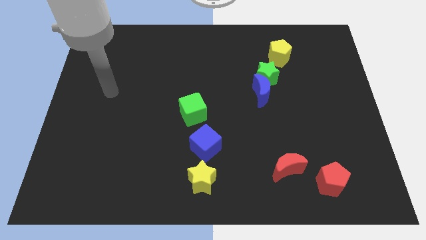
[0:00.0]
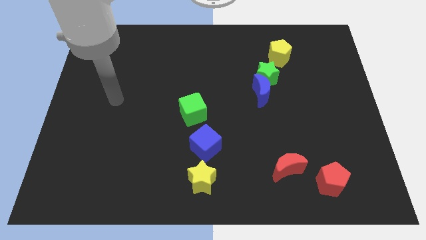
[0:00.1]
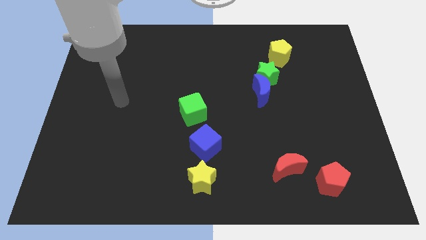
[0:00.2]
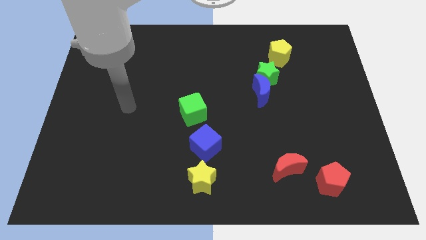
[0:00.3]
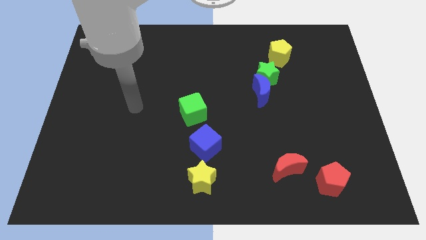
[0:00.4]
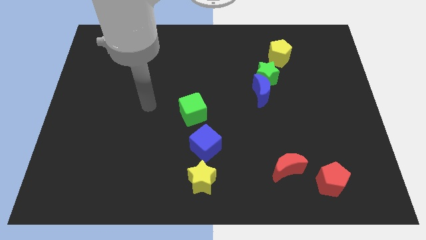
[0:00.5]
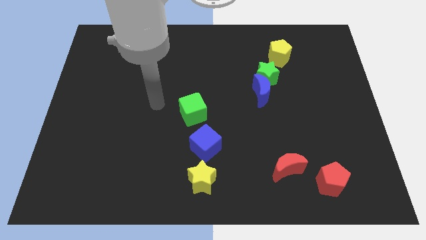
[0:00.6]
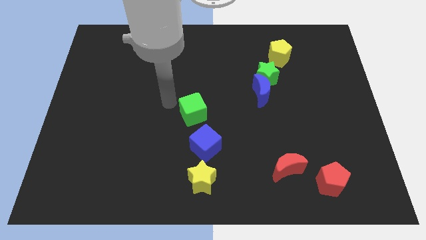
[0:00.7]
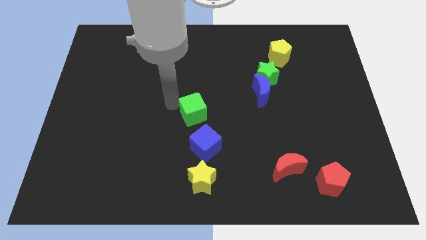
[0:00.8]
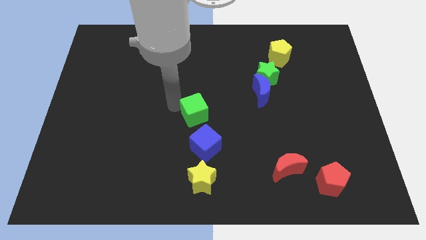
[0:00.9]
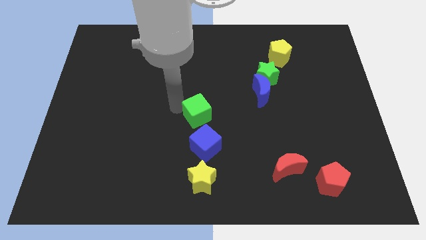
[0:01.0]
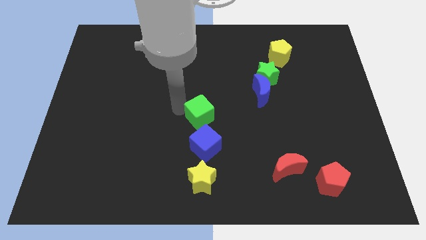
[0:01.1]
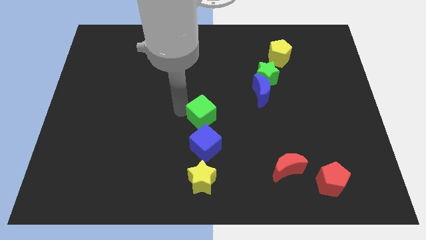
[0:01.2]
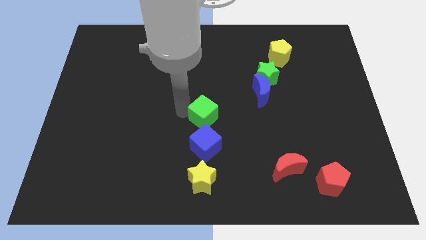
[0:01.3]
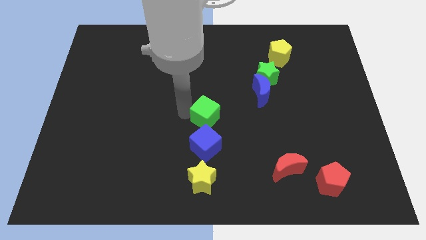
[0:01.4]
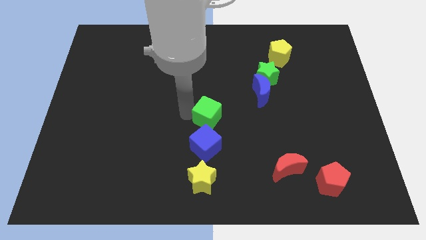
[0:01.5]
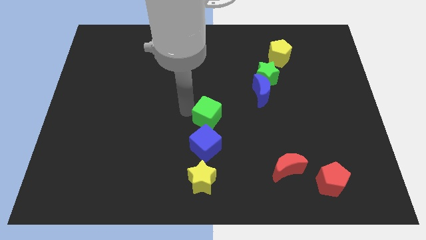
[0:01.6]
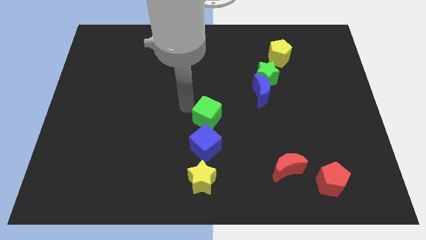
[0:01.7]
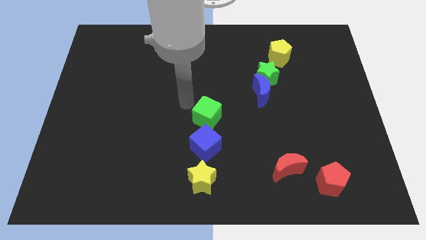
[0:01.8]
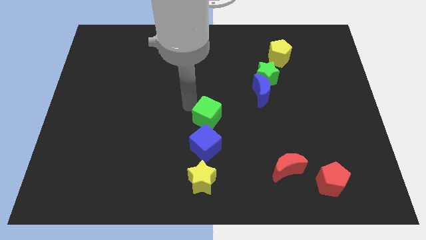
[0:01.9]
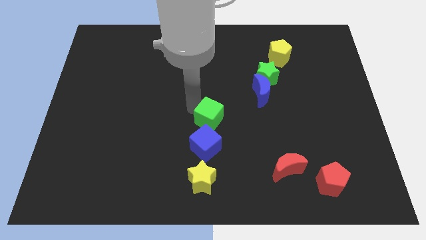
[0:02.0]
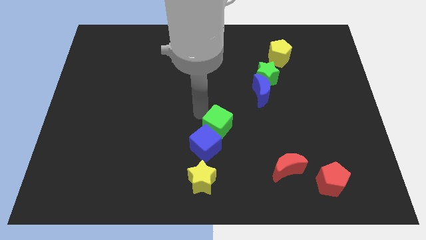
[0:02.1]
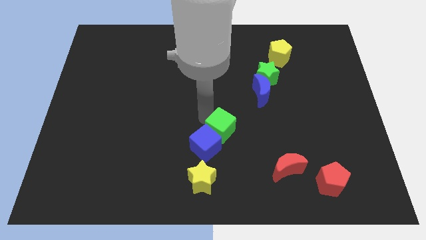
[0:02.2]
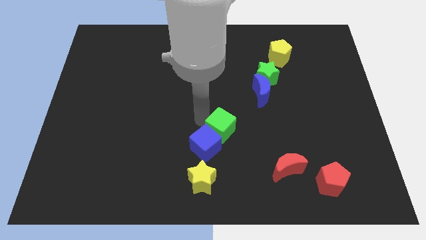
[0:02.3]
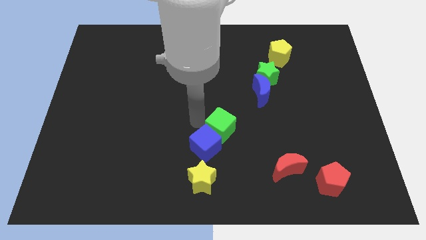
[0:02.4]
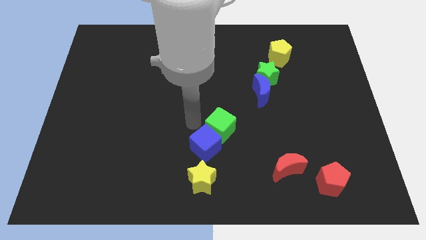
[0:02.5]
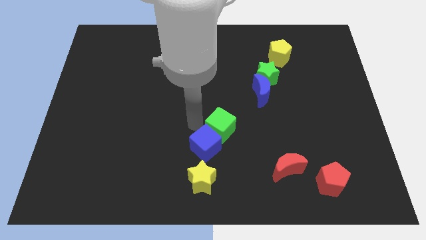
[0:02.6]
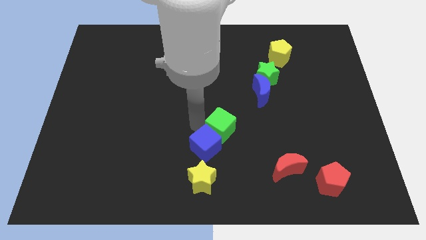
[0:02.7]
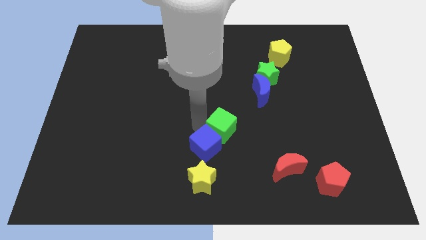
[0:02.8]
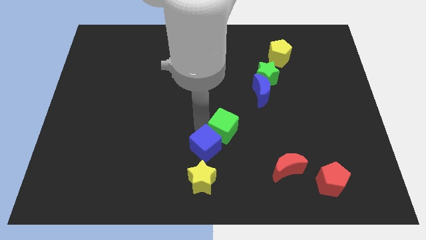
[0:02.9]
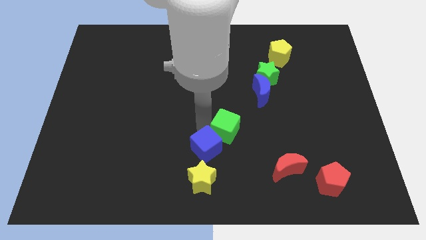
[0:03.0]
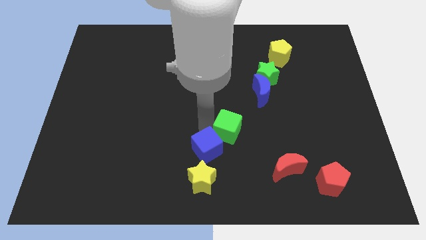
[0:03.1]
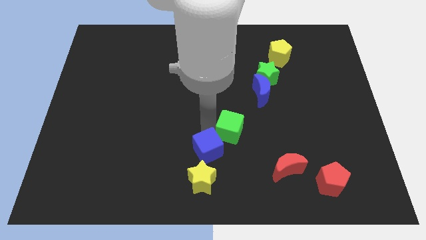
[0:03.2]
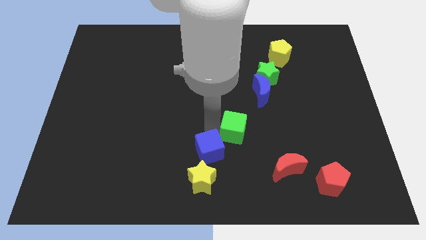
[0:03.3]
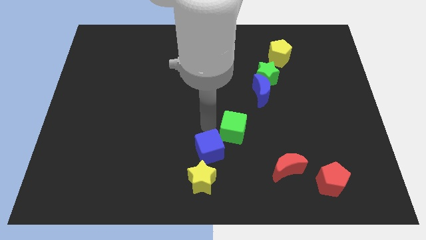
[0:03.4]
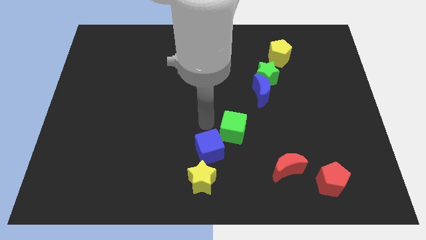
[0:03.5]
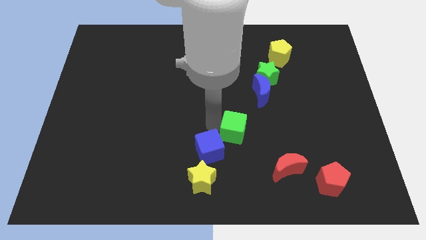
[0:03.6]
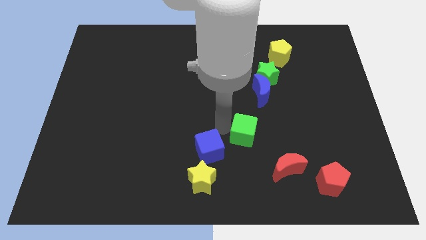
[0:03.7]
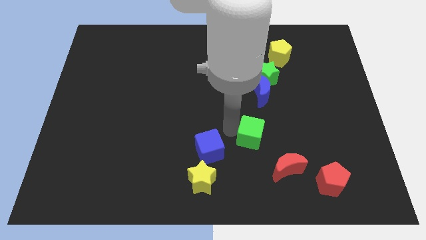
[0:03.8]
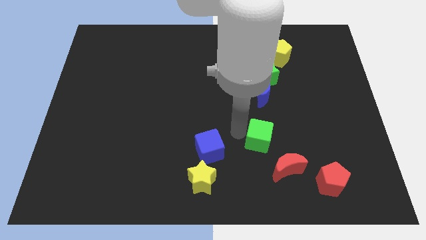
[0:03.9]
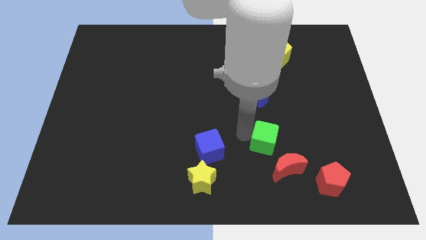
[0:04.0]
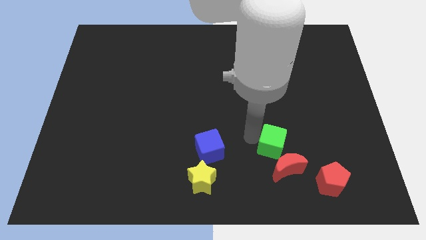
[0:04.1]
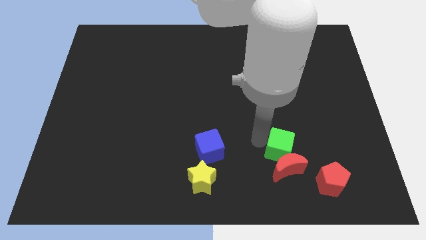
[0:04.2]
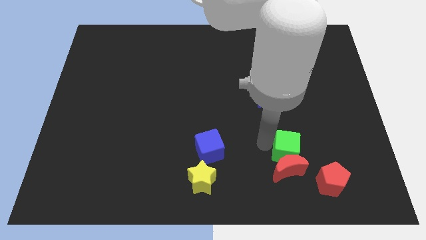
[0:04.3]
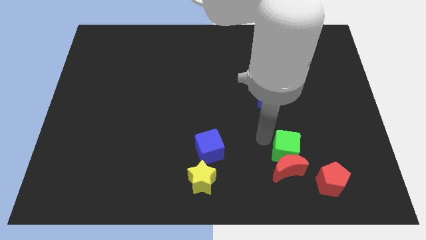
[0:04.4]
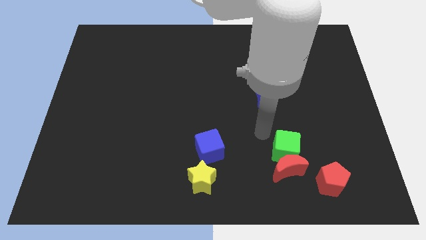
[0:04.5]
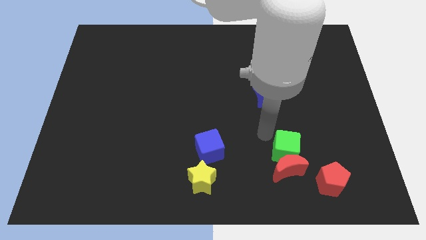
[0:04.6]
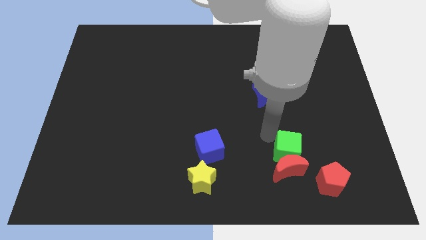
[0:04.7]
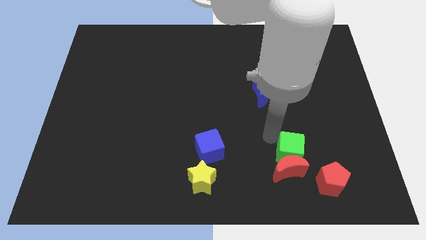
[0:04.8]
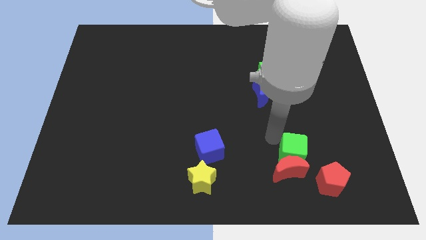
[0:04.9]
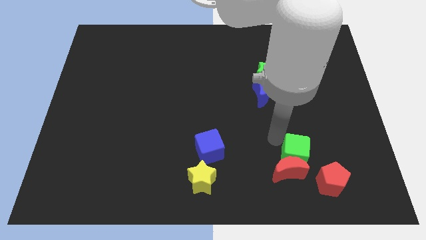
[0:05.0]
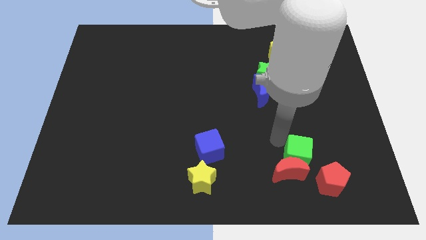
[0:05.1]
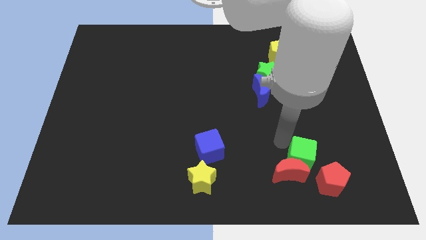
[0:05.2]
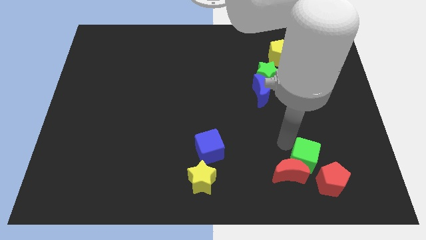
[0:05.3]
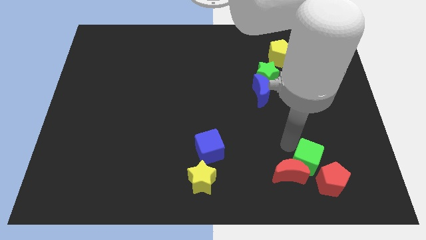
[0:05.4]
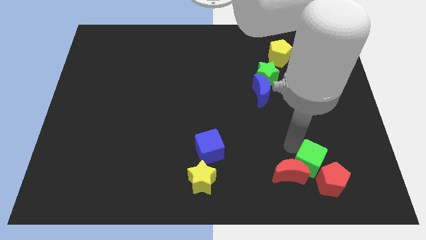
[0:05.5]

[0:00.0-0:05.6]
push the green cube towards the red pentagon

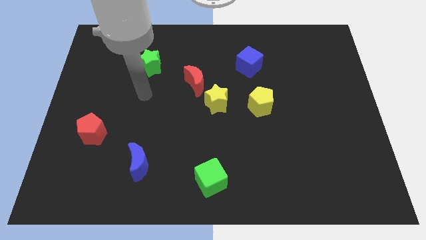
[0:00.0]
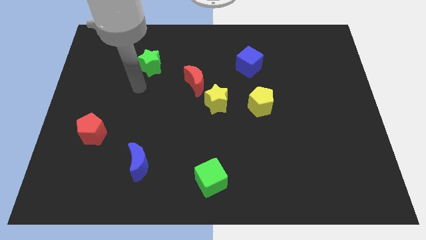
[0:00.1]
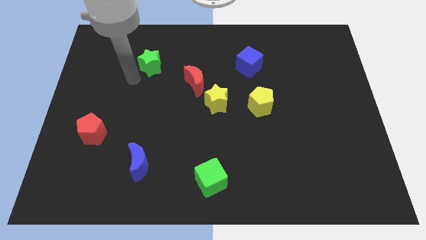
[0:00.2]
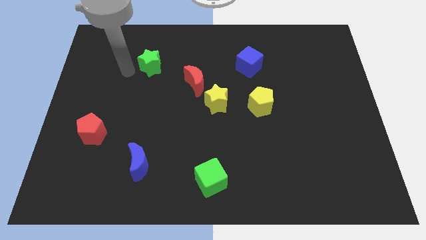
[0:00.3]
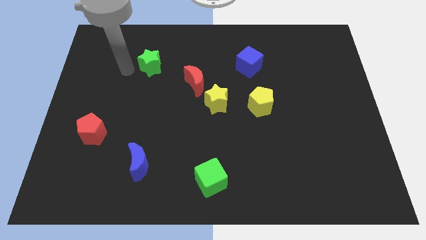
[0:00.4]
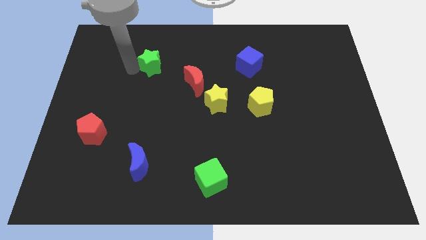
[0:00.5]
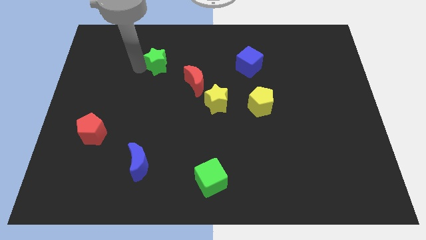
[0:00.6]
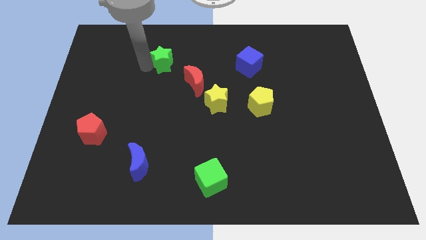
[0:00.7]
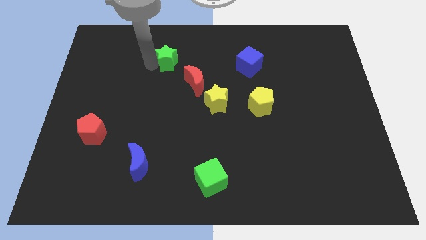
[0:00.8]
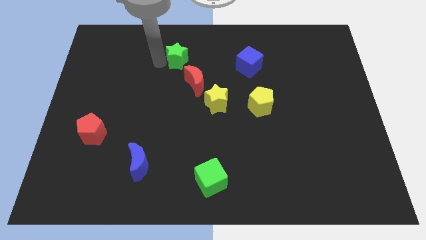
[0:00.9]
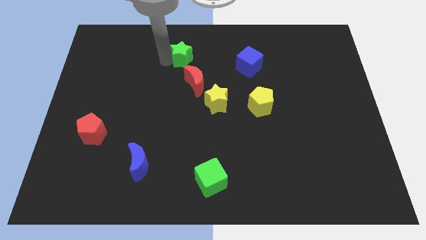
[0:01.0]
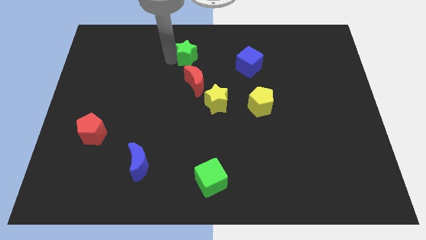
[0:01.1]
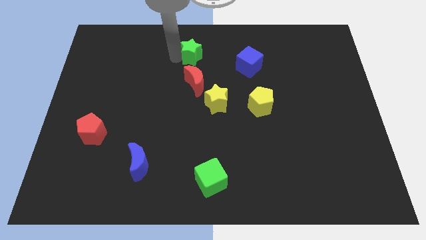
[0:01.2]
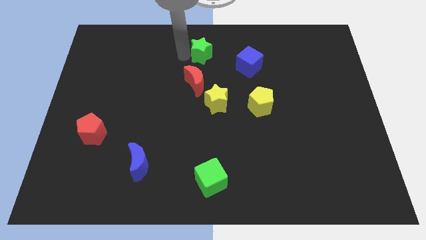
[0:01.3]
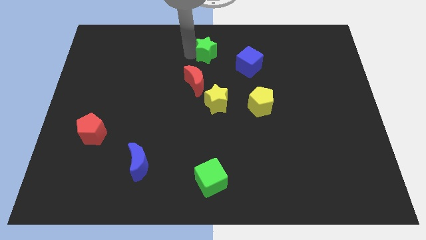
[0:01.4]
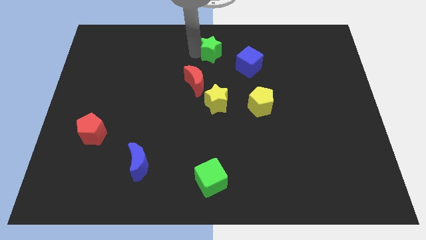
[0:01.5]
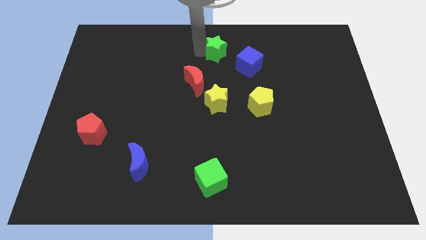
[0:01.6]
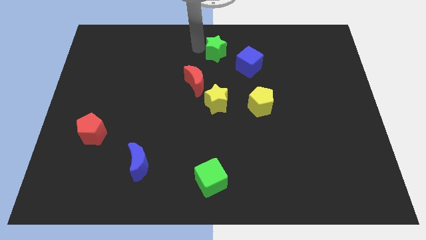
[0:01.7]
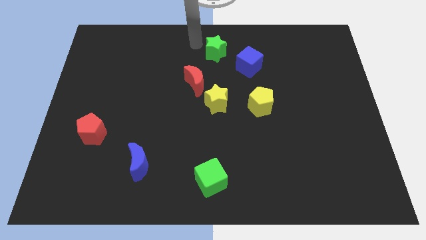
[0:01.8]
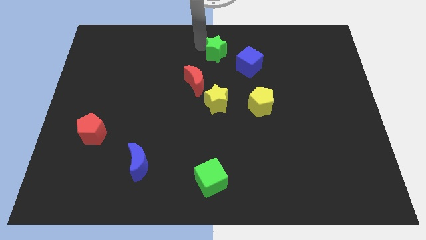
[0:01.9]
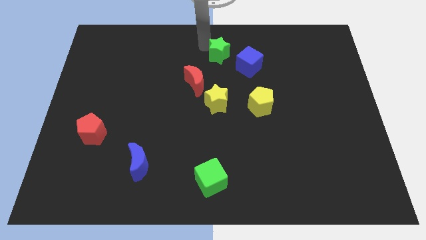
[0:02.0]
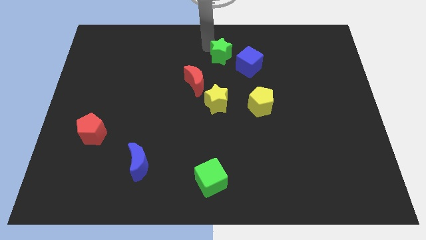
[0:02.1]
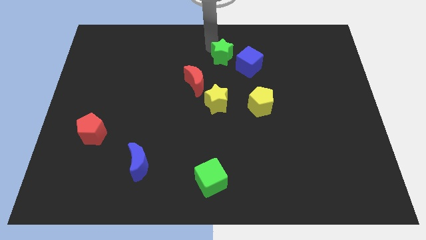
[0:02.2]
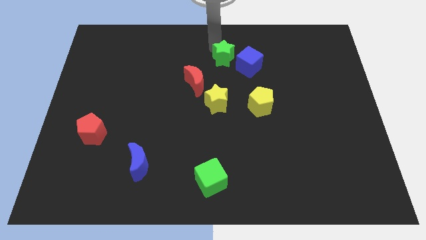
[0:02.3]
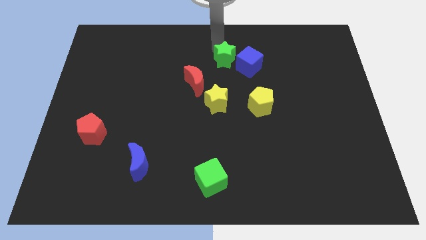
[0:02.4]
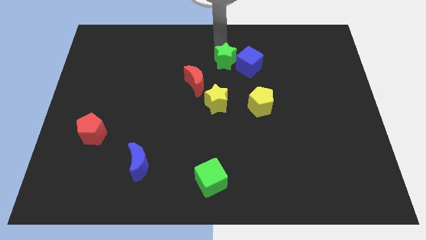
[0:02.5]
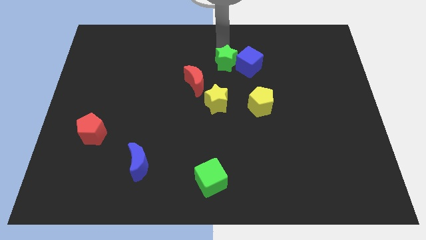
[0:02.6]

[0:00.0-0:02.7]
move the green star towards the blue cube
